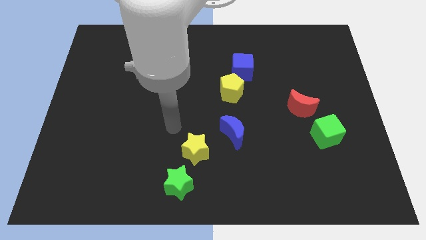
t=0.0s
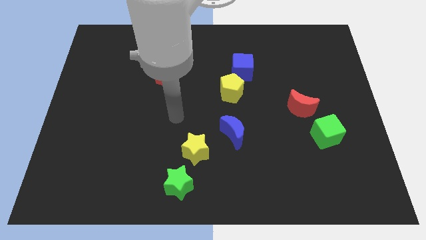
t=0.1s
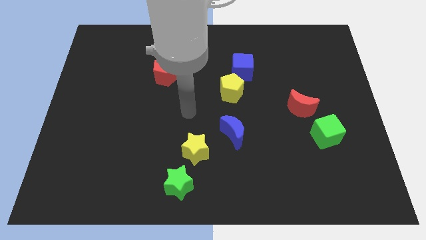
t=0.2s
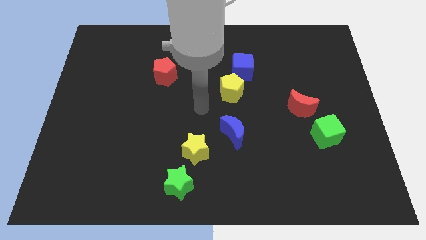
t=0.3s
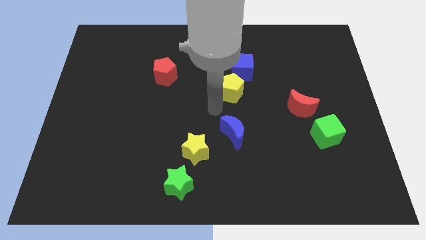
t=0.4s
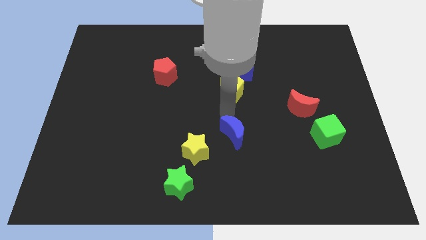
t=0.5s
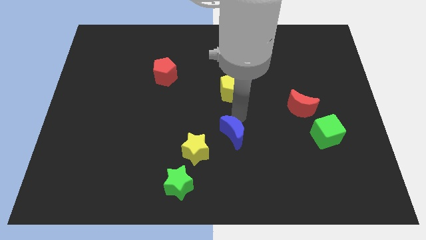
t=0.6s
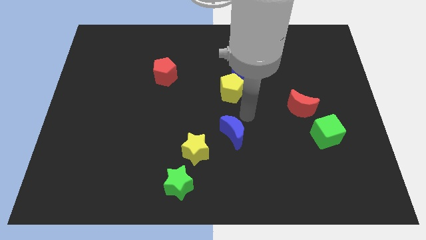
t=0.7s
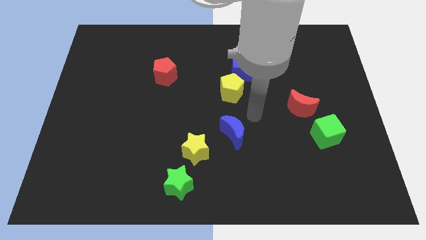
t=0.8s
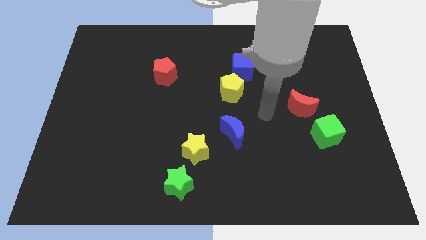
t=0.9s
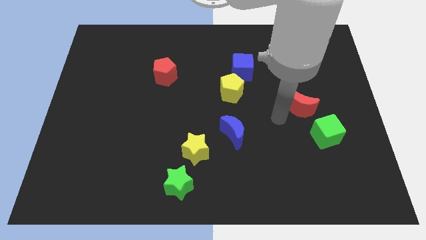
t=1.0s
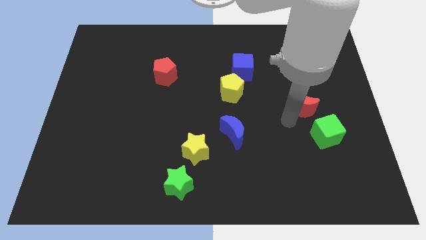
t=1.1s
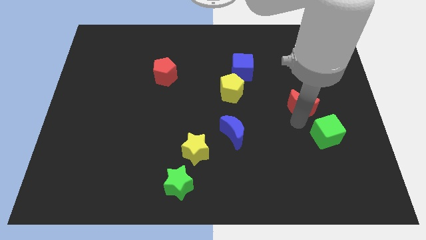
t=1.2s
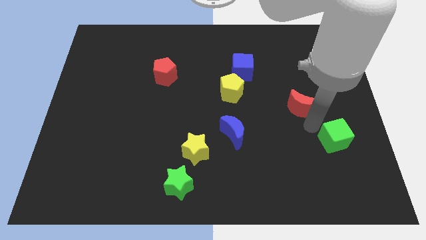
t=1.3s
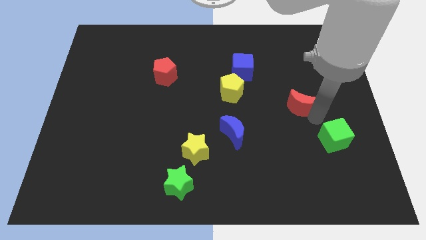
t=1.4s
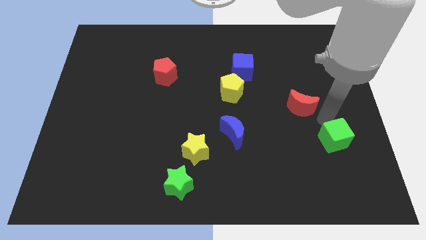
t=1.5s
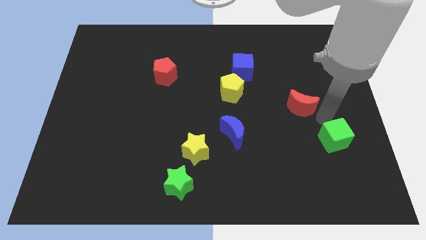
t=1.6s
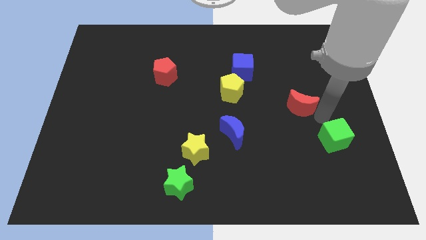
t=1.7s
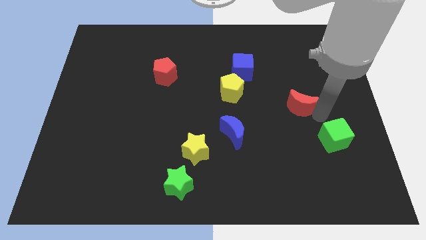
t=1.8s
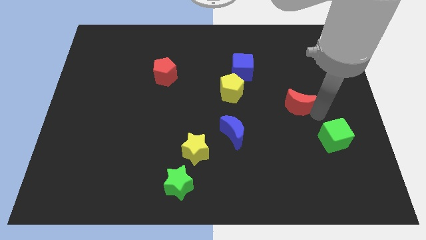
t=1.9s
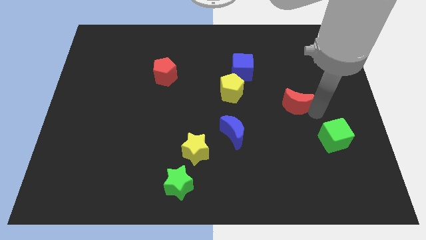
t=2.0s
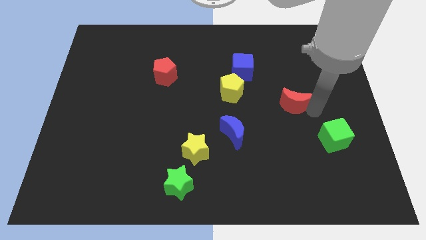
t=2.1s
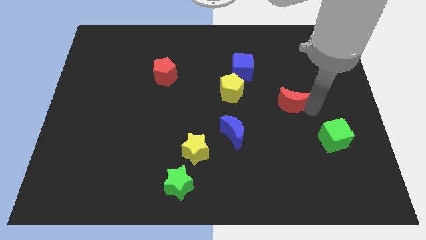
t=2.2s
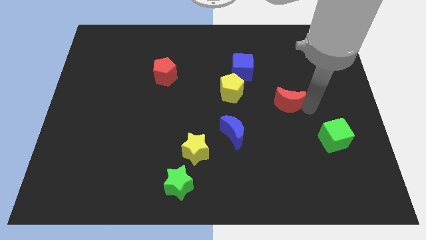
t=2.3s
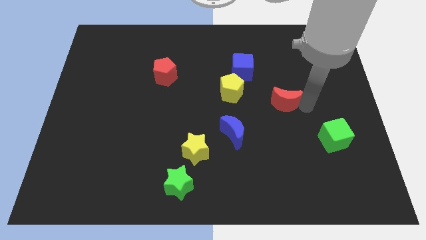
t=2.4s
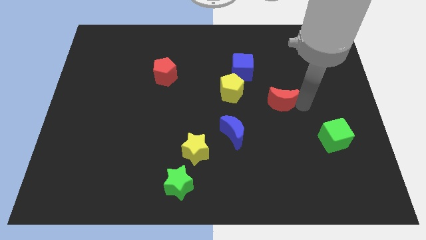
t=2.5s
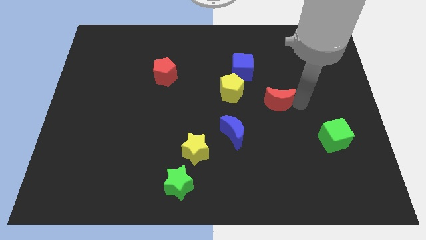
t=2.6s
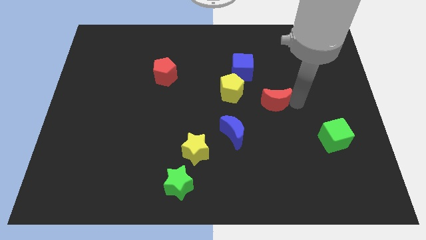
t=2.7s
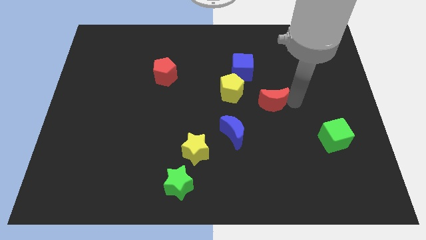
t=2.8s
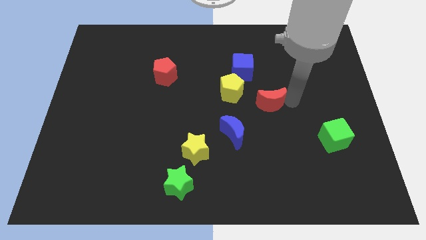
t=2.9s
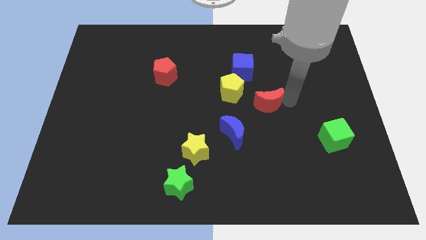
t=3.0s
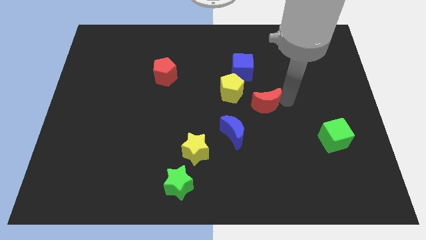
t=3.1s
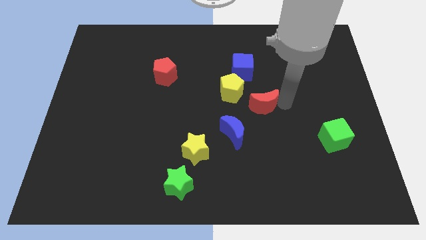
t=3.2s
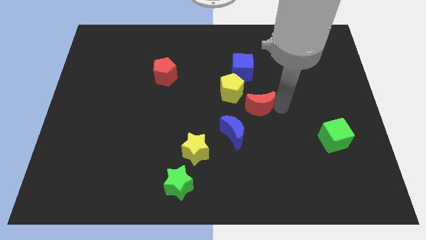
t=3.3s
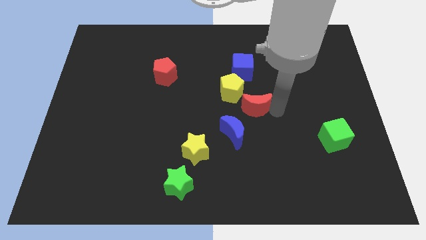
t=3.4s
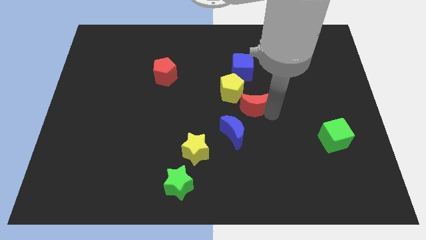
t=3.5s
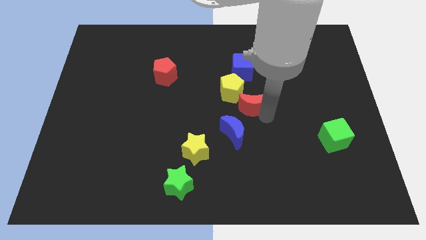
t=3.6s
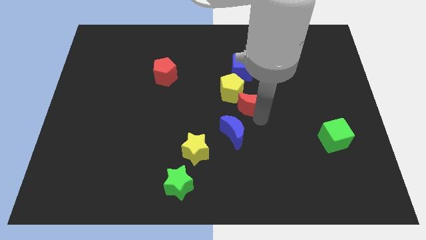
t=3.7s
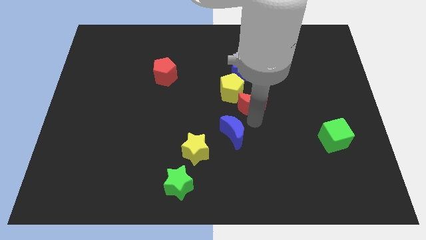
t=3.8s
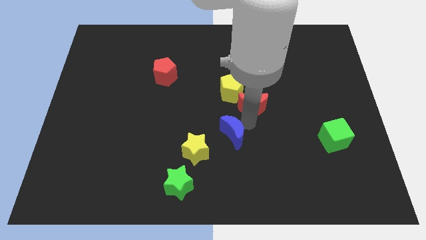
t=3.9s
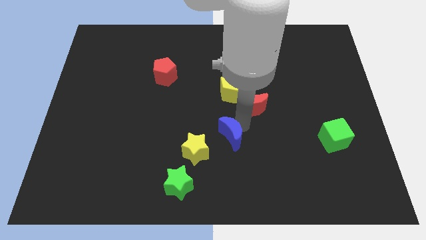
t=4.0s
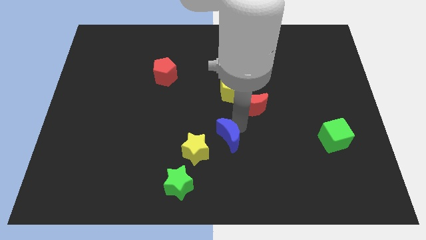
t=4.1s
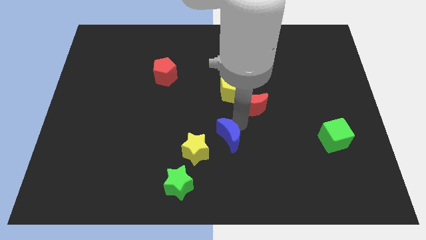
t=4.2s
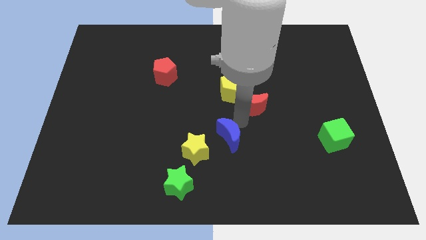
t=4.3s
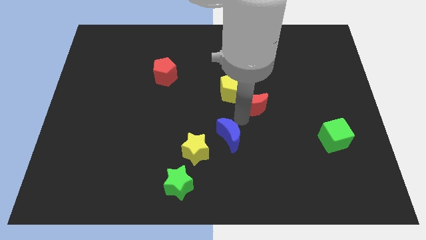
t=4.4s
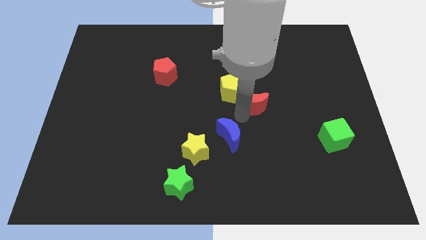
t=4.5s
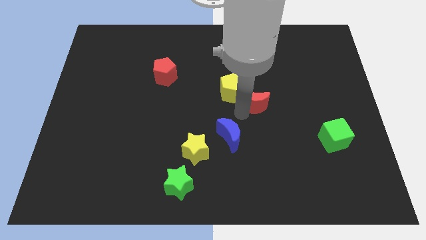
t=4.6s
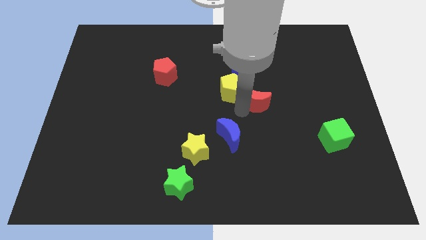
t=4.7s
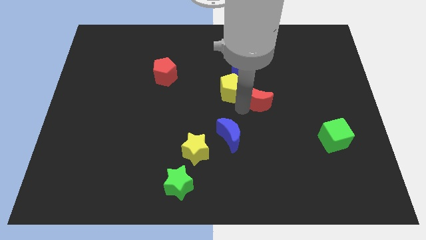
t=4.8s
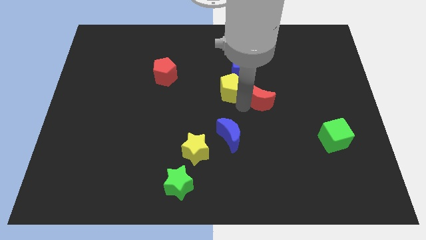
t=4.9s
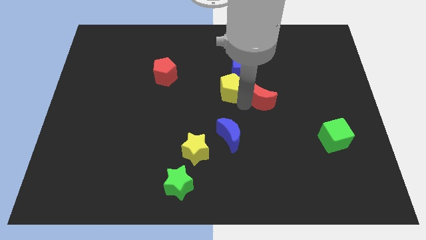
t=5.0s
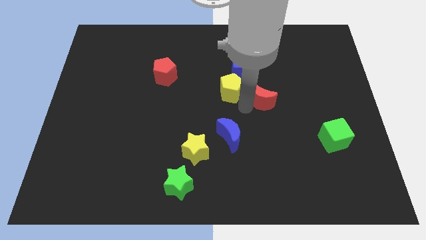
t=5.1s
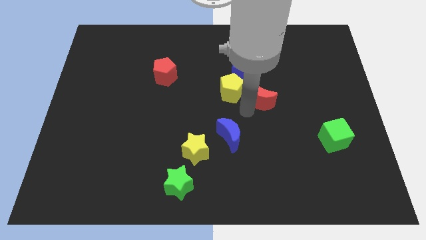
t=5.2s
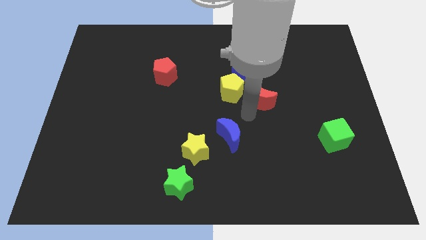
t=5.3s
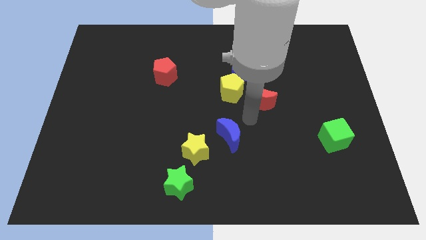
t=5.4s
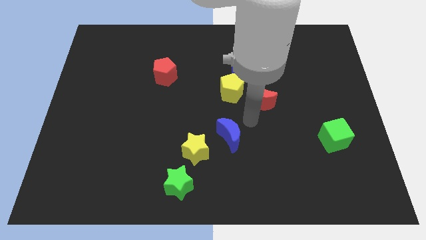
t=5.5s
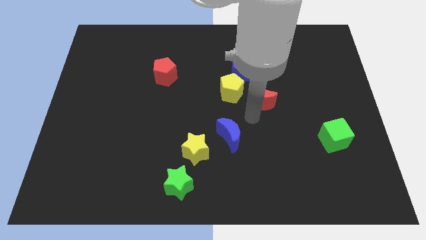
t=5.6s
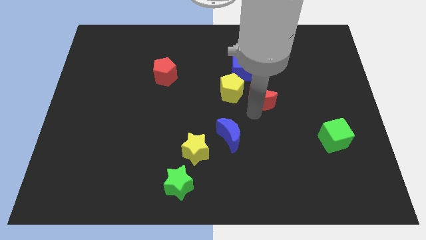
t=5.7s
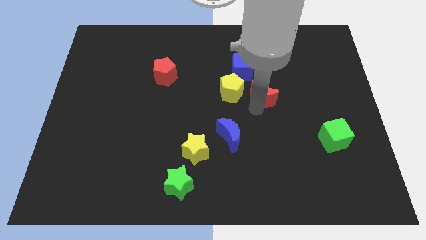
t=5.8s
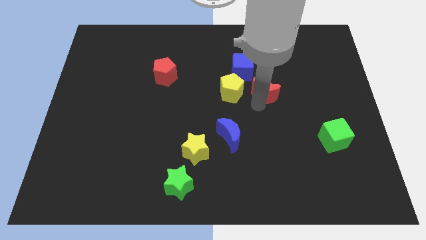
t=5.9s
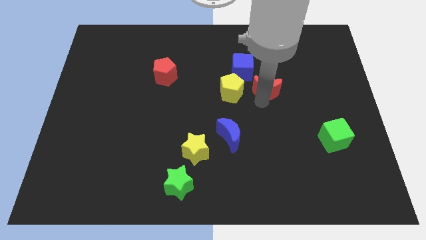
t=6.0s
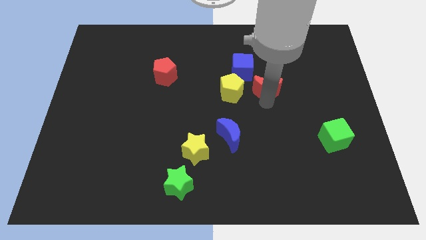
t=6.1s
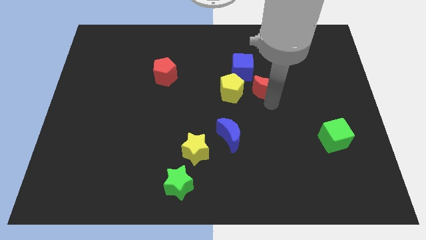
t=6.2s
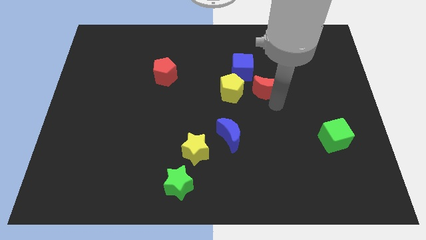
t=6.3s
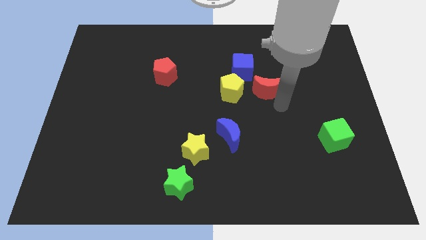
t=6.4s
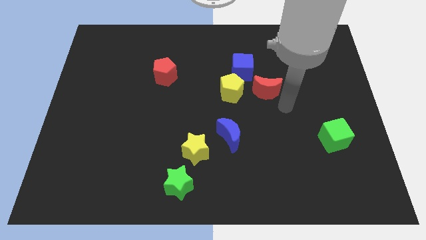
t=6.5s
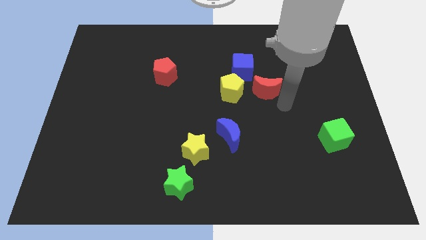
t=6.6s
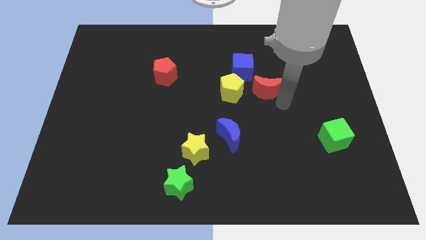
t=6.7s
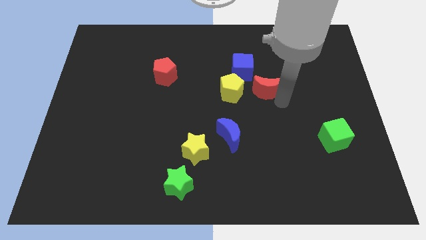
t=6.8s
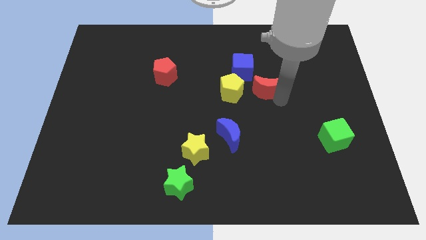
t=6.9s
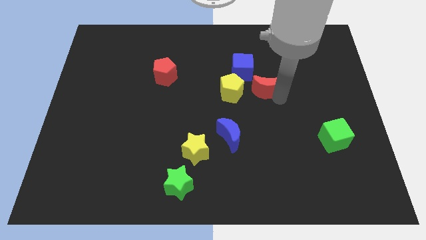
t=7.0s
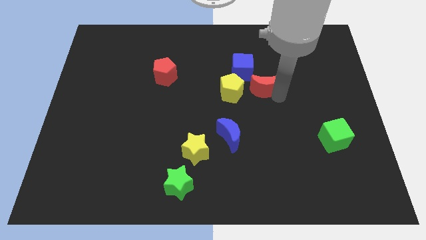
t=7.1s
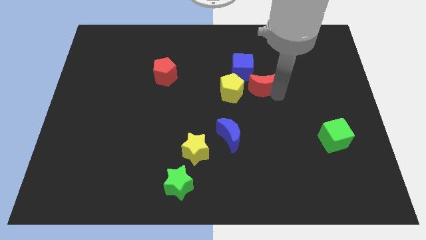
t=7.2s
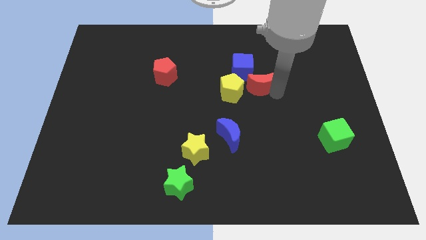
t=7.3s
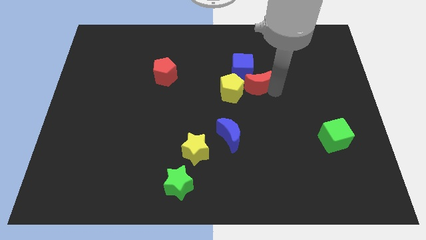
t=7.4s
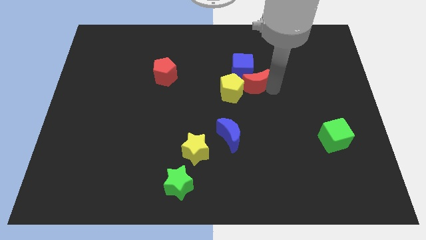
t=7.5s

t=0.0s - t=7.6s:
slide the red moon next to the blue cube
